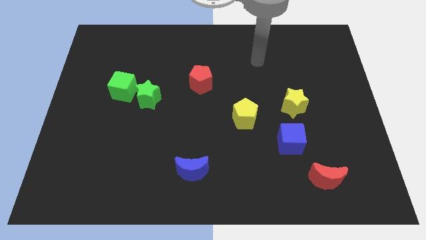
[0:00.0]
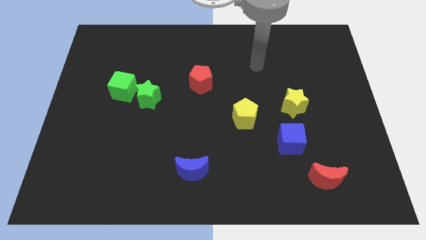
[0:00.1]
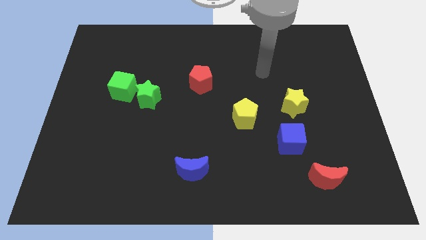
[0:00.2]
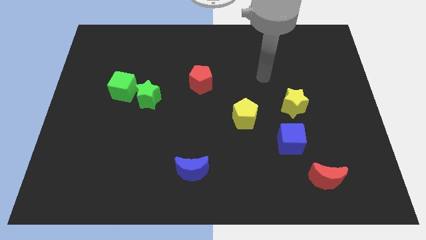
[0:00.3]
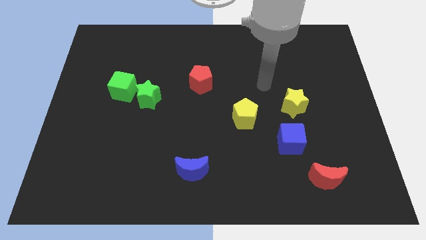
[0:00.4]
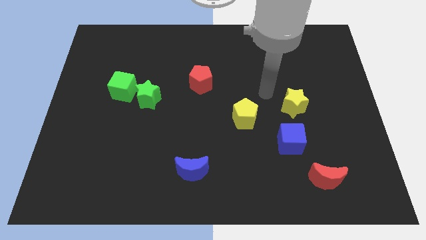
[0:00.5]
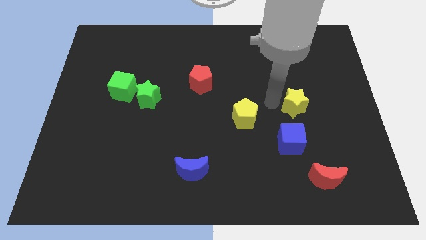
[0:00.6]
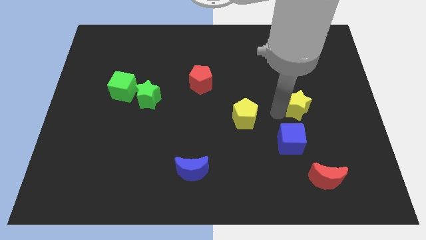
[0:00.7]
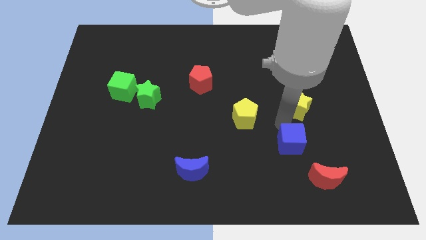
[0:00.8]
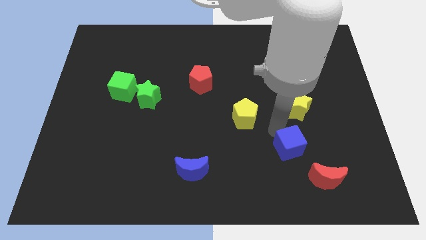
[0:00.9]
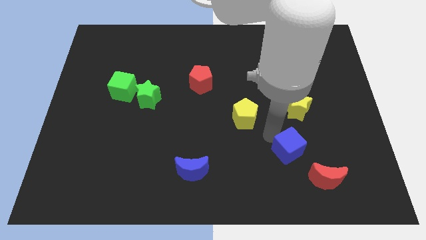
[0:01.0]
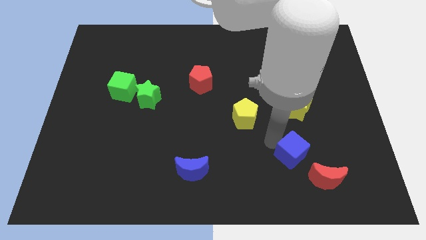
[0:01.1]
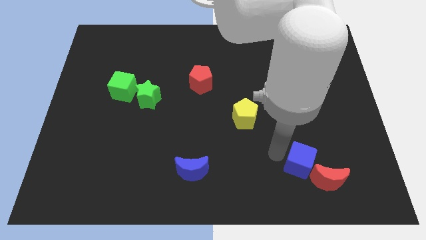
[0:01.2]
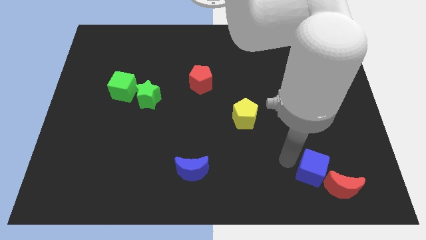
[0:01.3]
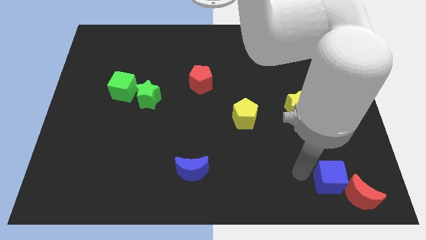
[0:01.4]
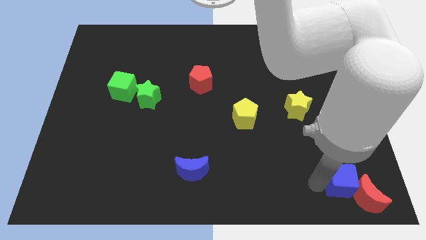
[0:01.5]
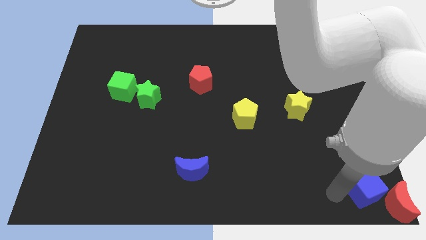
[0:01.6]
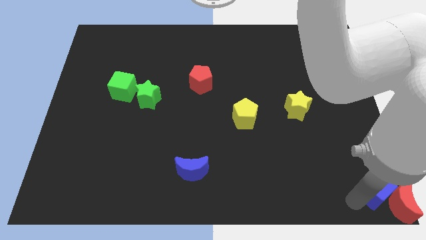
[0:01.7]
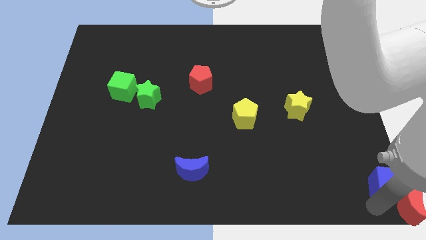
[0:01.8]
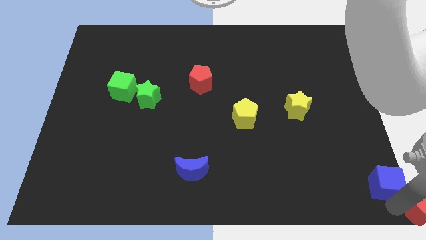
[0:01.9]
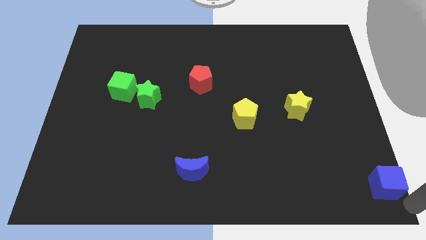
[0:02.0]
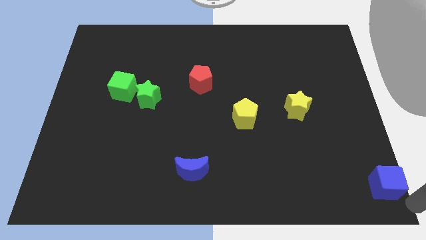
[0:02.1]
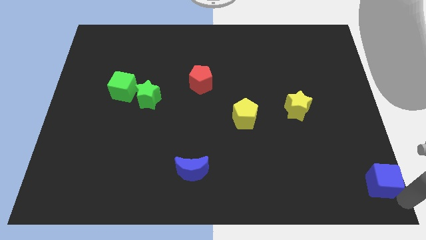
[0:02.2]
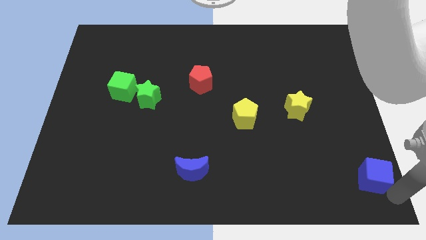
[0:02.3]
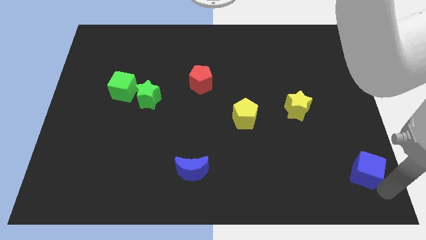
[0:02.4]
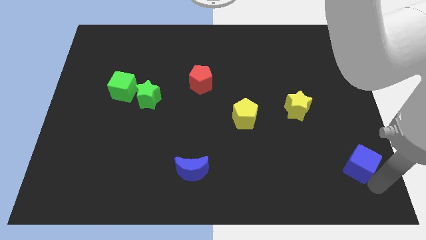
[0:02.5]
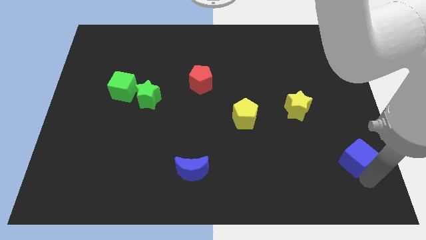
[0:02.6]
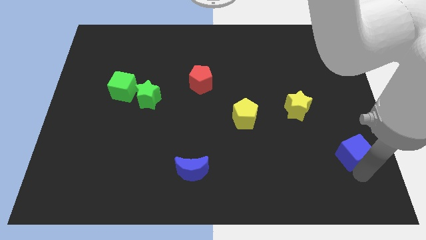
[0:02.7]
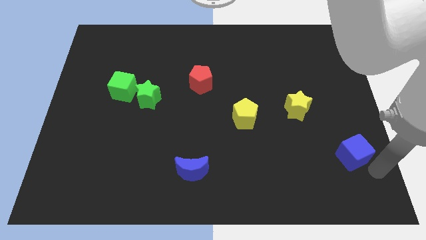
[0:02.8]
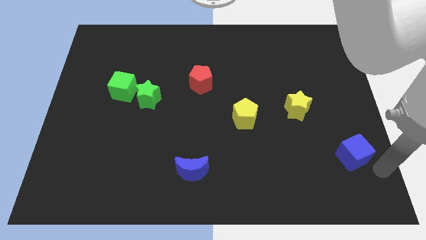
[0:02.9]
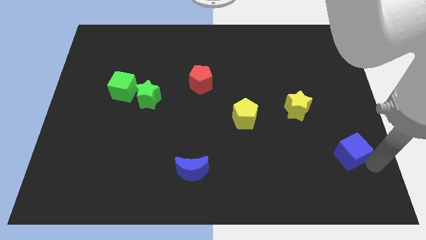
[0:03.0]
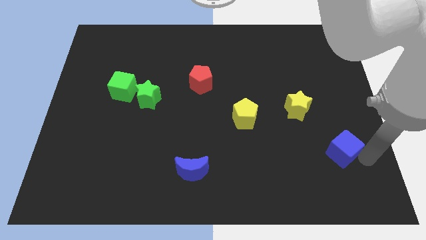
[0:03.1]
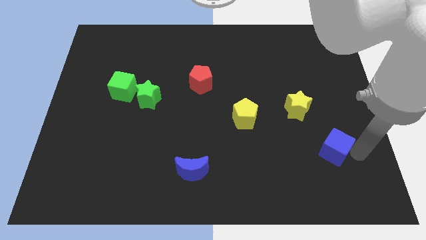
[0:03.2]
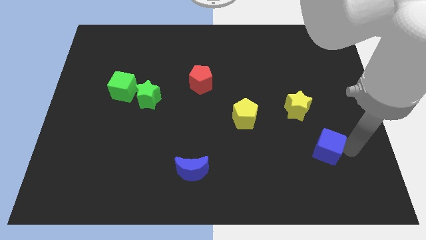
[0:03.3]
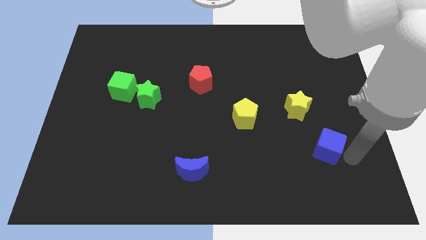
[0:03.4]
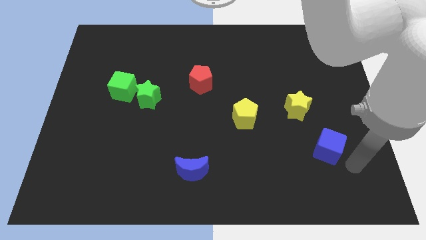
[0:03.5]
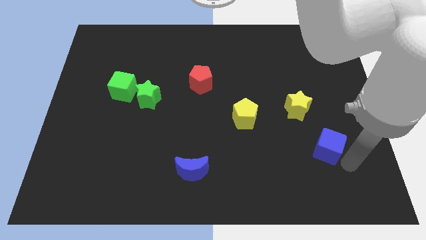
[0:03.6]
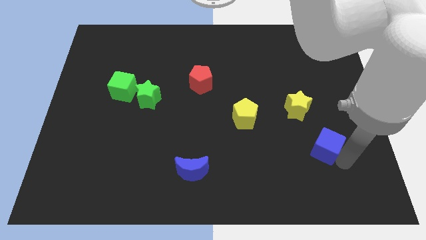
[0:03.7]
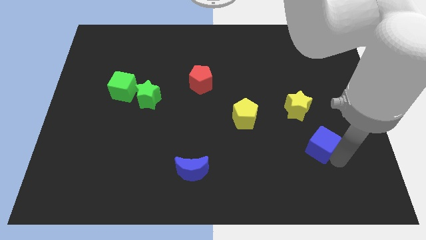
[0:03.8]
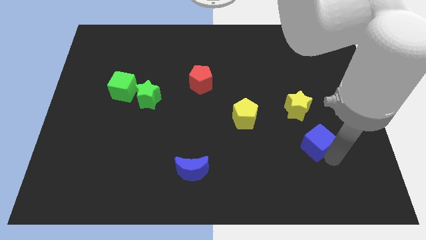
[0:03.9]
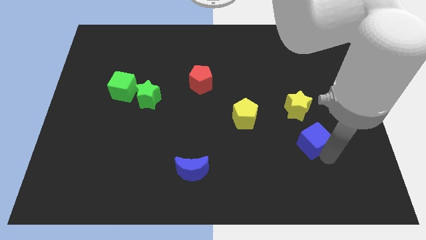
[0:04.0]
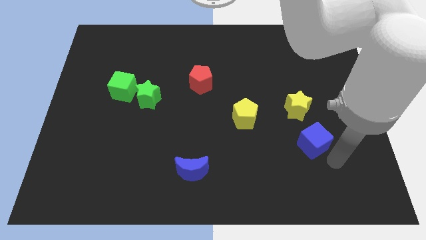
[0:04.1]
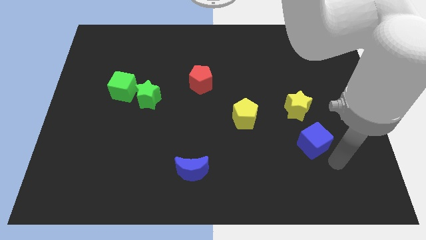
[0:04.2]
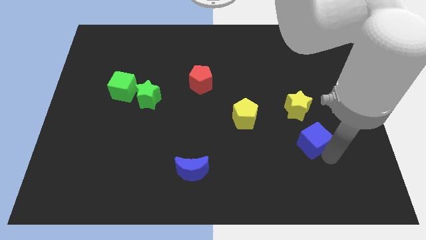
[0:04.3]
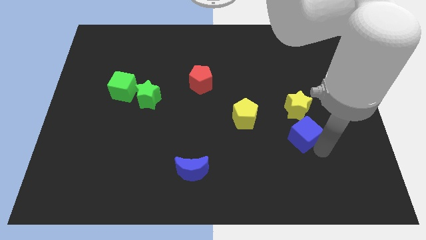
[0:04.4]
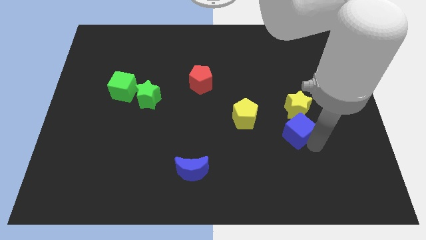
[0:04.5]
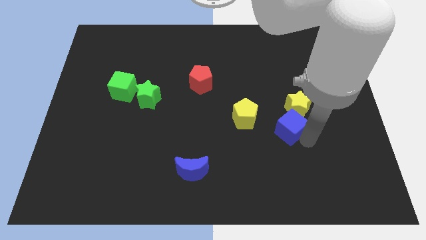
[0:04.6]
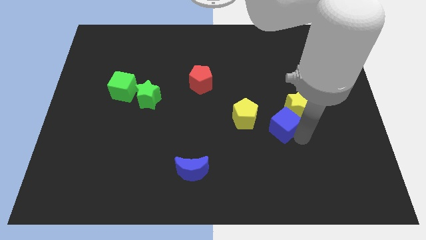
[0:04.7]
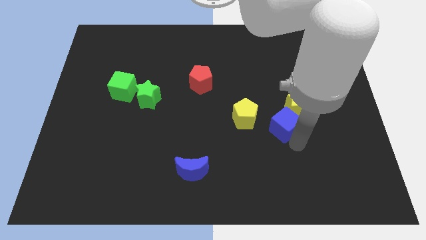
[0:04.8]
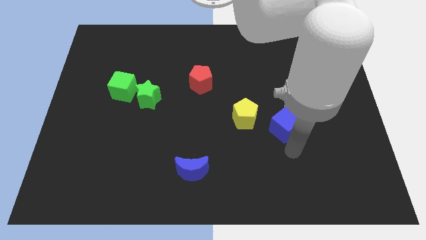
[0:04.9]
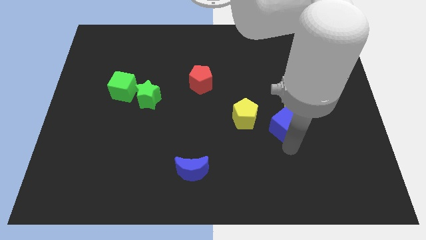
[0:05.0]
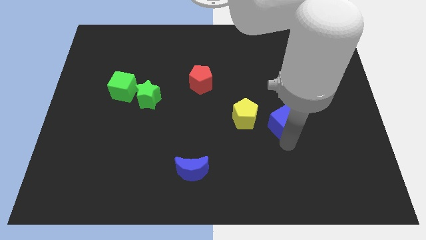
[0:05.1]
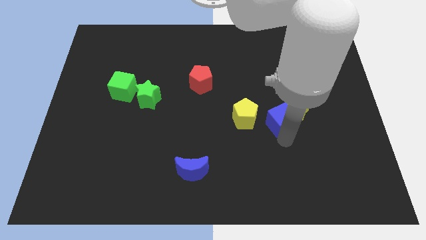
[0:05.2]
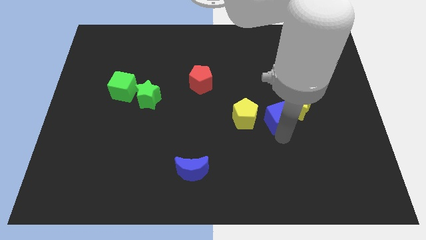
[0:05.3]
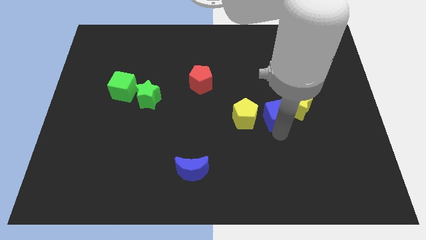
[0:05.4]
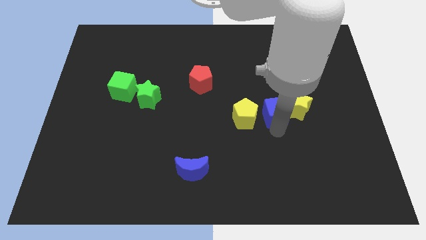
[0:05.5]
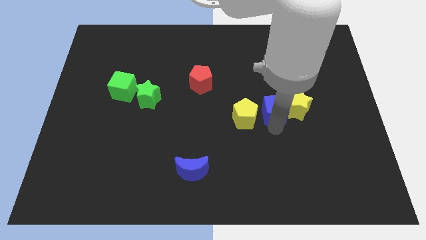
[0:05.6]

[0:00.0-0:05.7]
move the blue cube to the top left of the yellow star

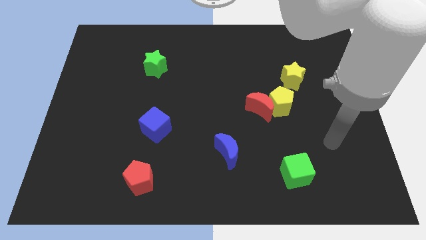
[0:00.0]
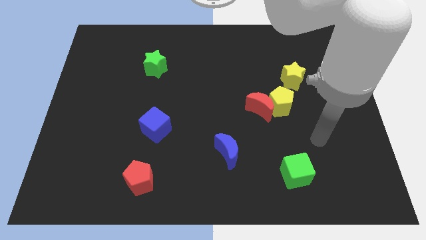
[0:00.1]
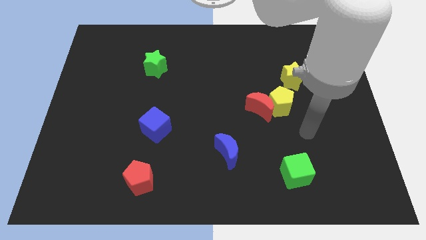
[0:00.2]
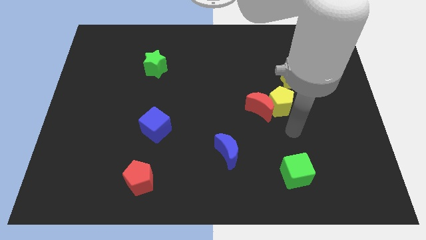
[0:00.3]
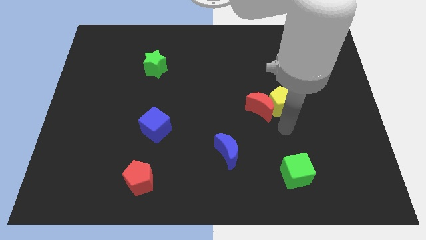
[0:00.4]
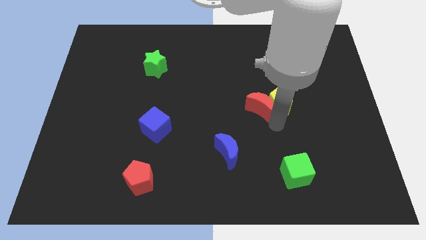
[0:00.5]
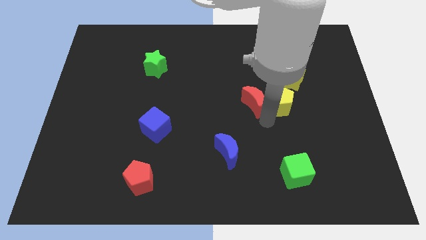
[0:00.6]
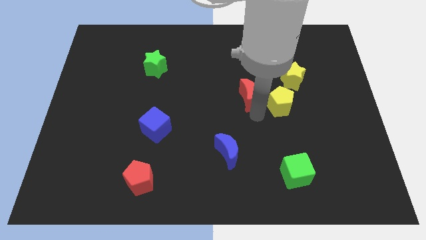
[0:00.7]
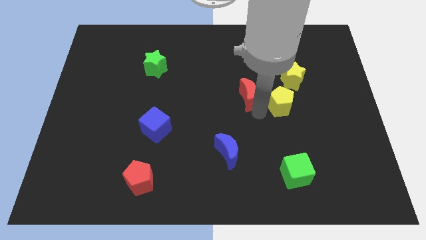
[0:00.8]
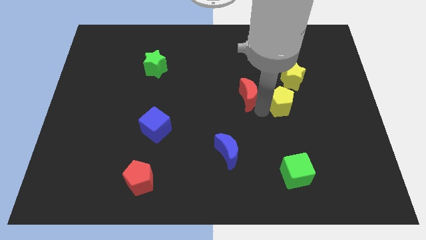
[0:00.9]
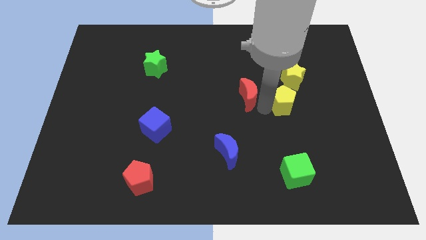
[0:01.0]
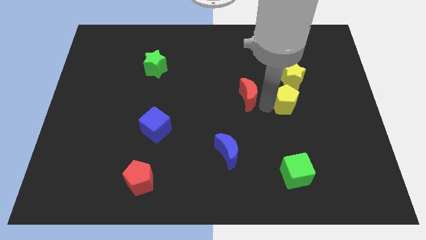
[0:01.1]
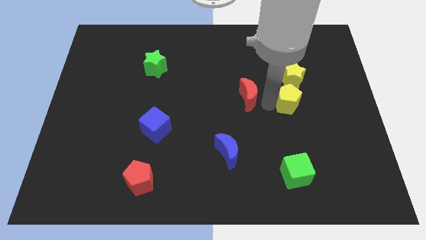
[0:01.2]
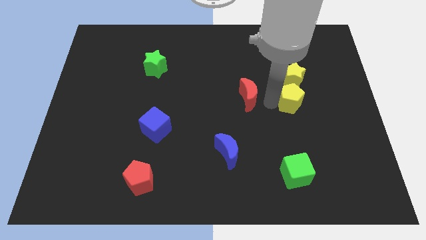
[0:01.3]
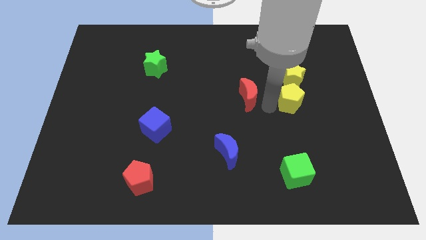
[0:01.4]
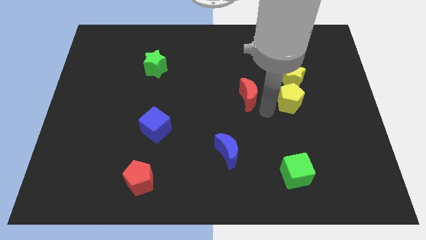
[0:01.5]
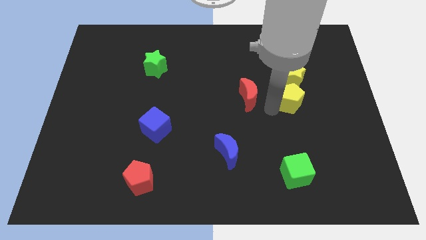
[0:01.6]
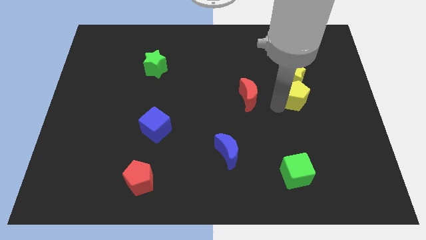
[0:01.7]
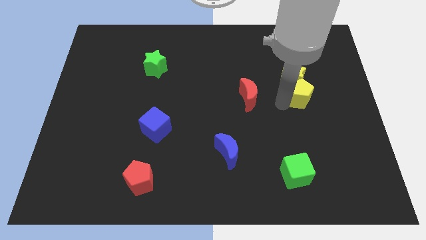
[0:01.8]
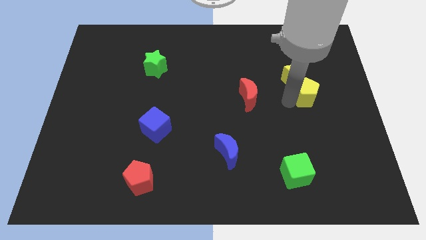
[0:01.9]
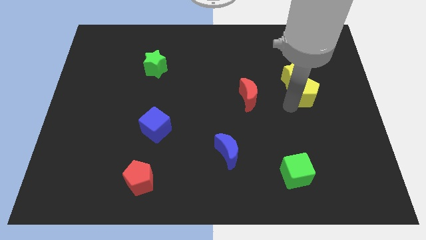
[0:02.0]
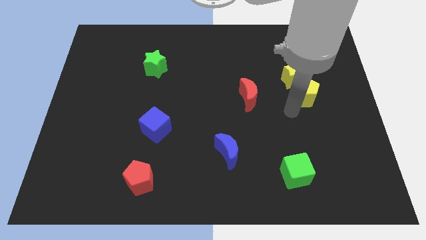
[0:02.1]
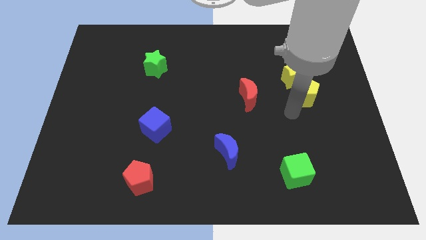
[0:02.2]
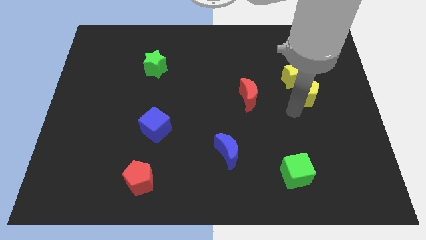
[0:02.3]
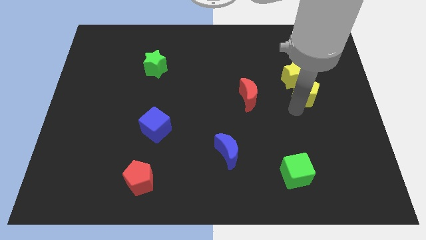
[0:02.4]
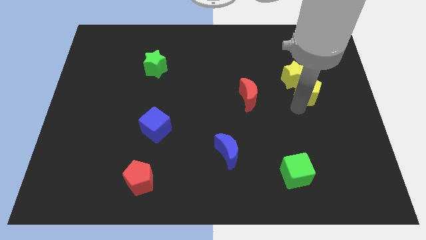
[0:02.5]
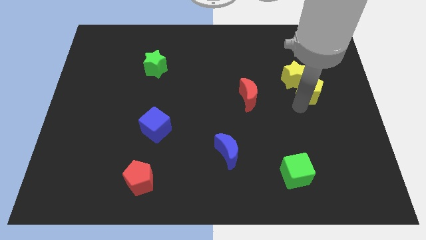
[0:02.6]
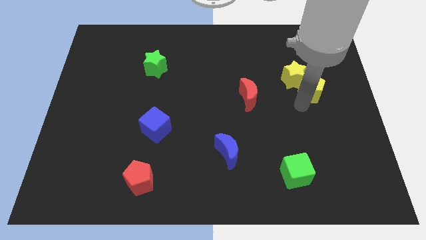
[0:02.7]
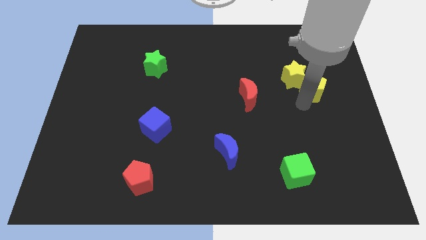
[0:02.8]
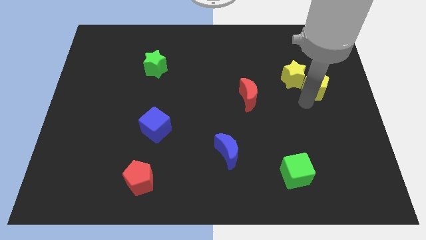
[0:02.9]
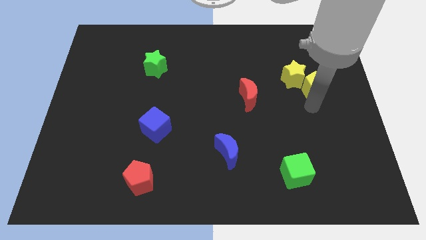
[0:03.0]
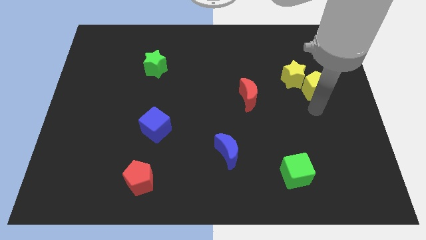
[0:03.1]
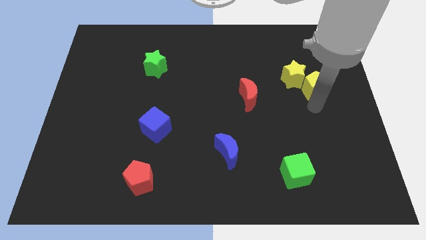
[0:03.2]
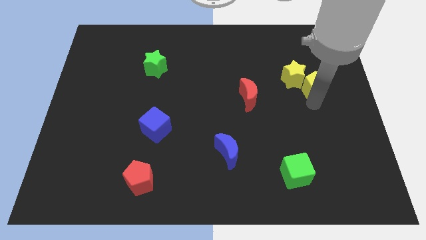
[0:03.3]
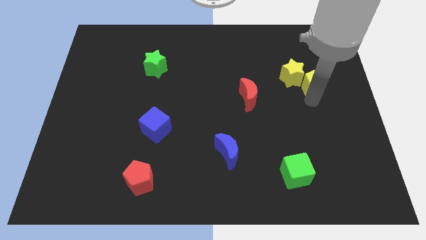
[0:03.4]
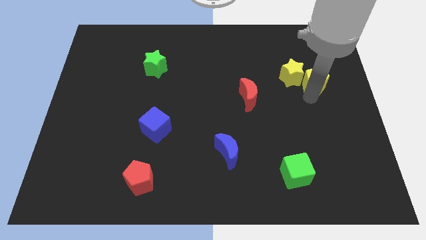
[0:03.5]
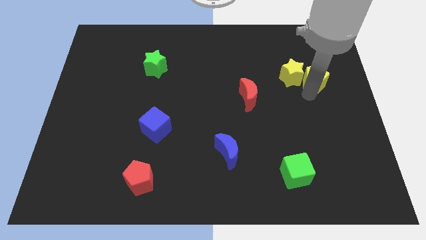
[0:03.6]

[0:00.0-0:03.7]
put the yellow pentagon to the top right of the yellow star
